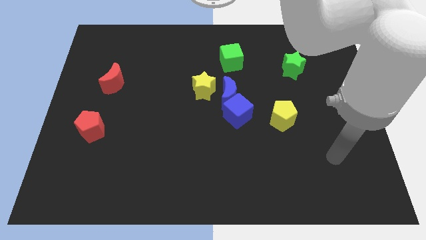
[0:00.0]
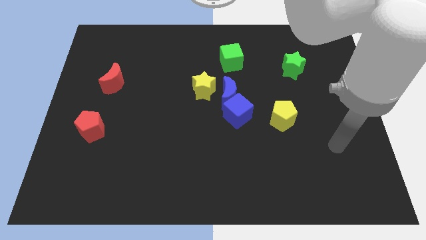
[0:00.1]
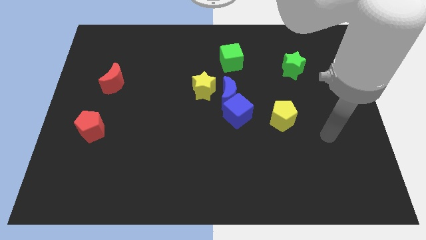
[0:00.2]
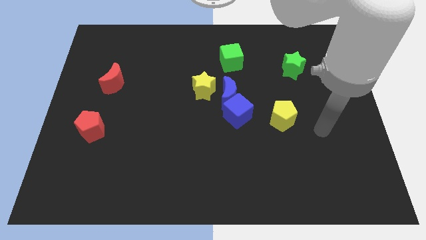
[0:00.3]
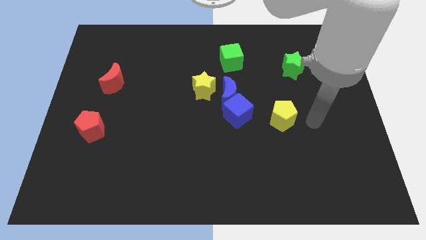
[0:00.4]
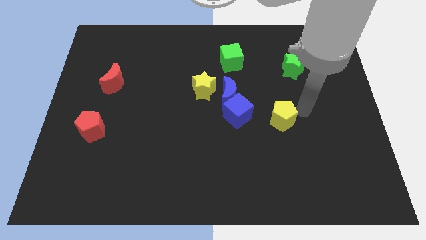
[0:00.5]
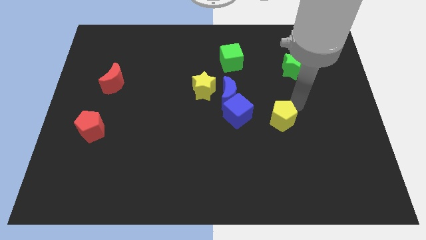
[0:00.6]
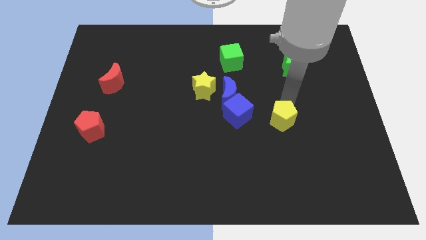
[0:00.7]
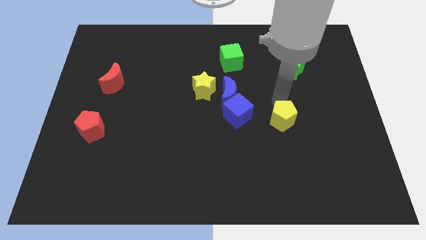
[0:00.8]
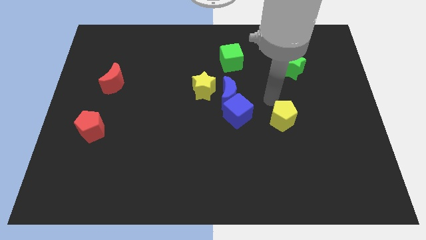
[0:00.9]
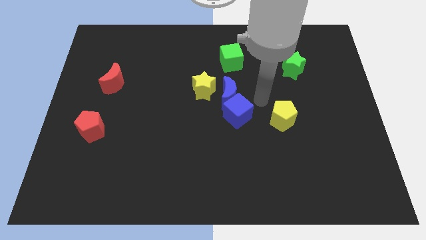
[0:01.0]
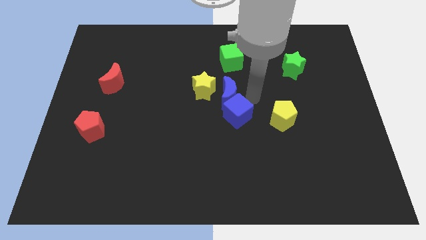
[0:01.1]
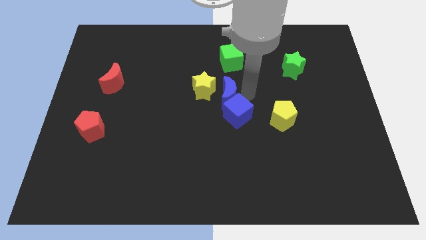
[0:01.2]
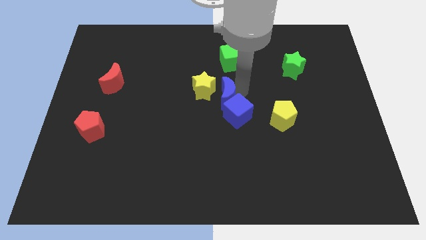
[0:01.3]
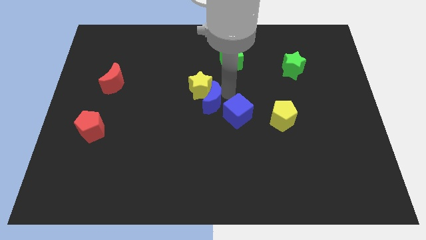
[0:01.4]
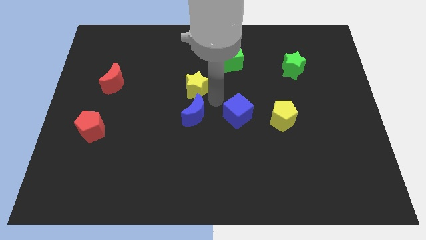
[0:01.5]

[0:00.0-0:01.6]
separate the blue cube from the blue moon

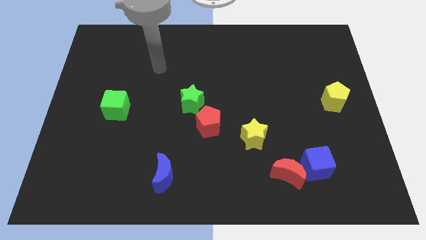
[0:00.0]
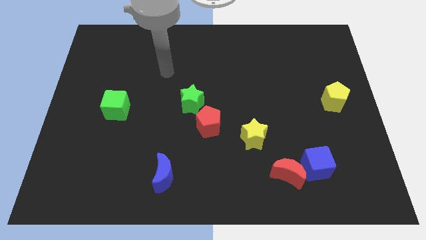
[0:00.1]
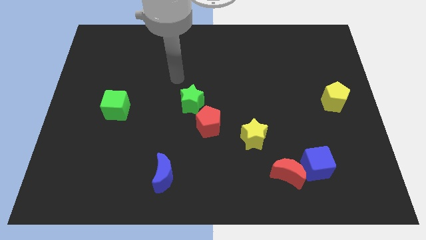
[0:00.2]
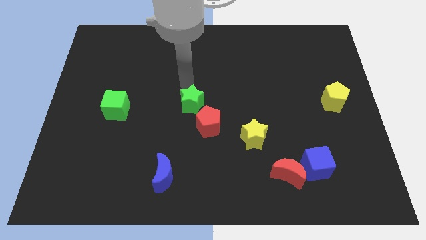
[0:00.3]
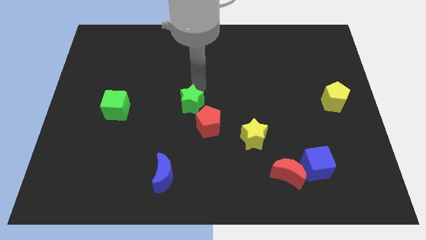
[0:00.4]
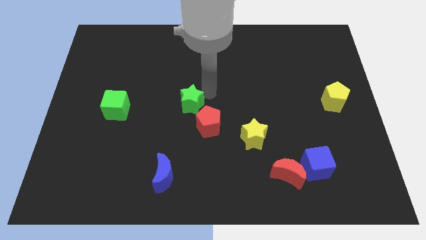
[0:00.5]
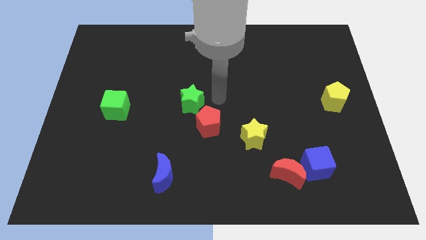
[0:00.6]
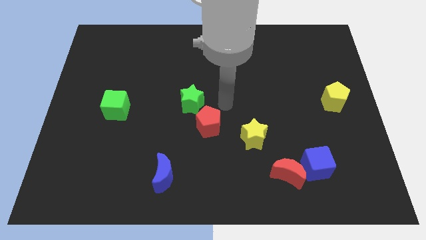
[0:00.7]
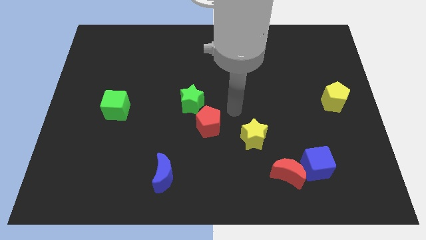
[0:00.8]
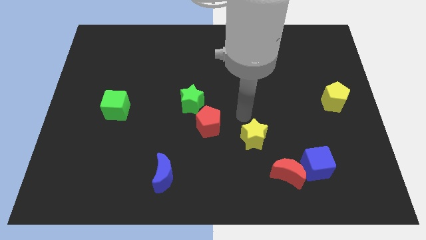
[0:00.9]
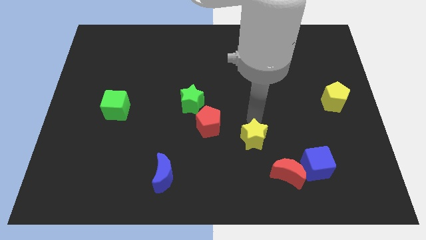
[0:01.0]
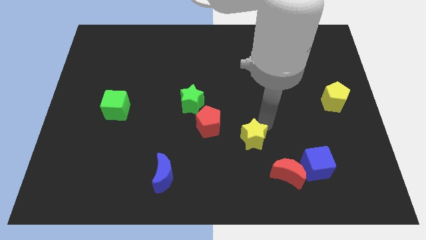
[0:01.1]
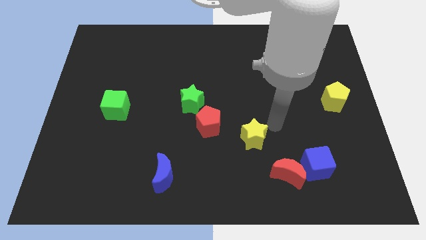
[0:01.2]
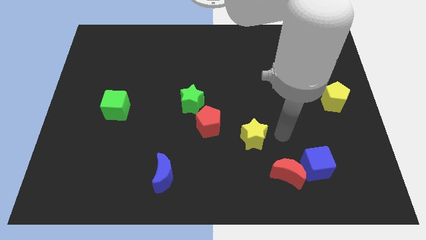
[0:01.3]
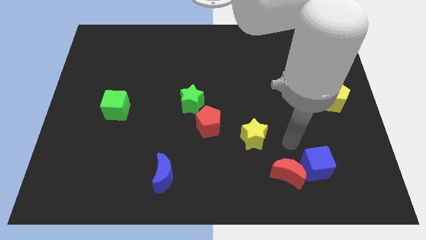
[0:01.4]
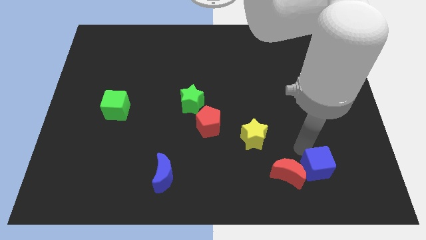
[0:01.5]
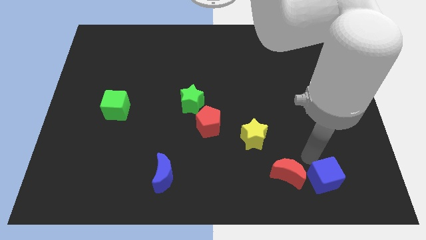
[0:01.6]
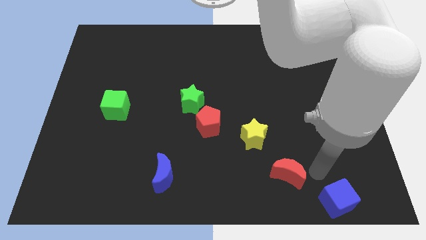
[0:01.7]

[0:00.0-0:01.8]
separate the red moon from the blue cube

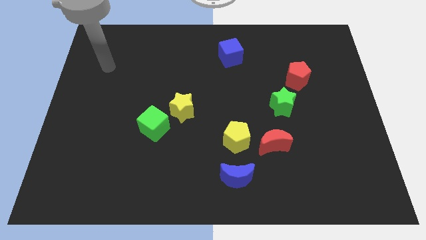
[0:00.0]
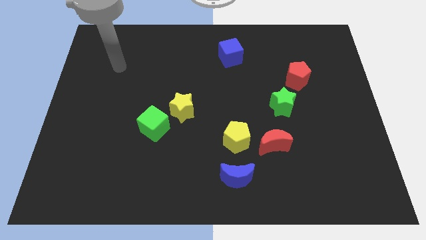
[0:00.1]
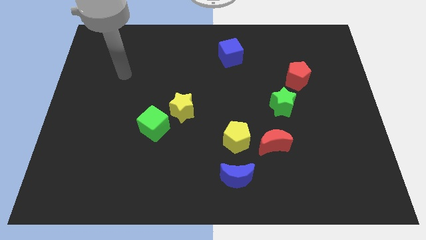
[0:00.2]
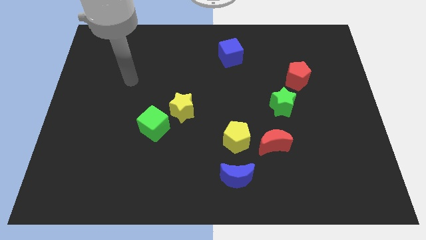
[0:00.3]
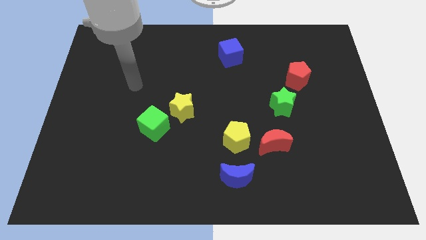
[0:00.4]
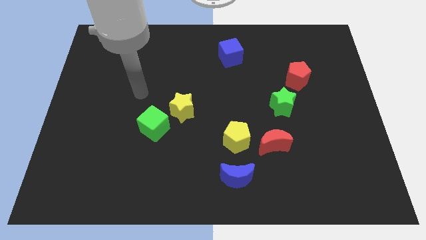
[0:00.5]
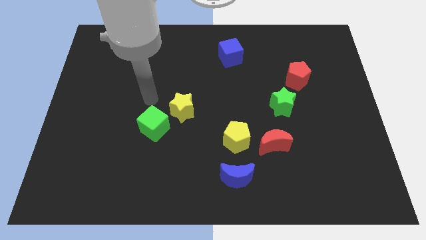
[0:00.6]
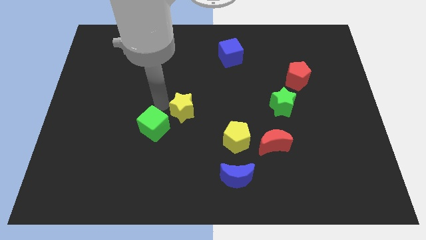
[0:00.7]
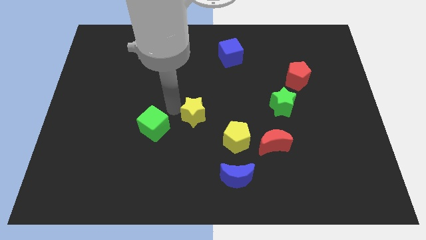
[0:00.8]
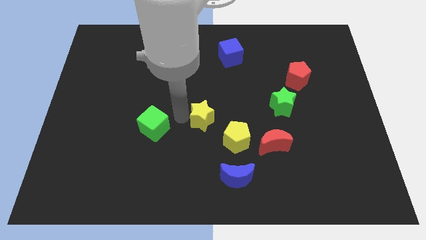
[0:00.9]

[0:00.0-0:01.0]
separate the green cube from the yellow star

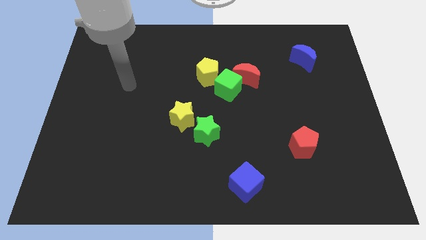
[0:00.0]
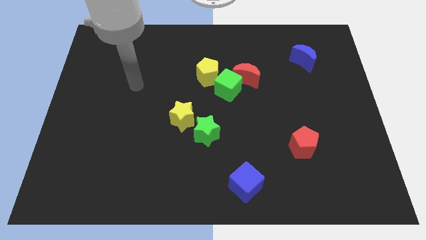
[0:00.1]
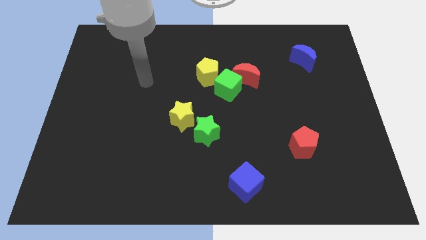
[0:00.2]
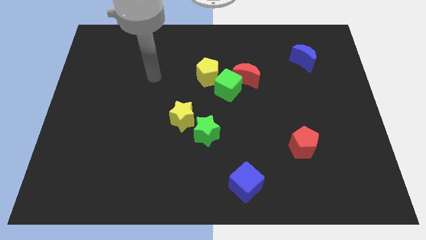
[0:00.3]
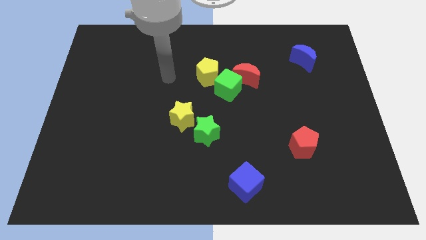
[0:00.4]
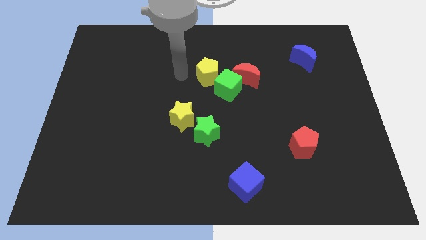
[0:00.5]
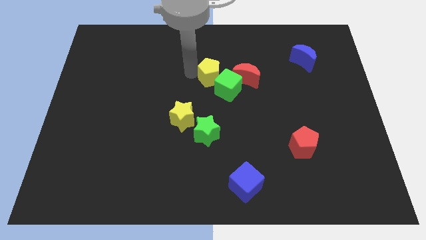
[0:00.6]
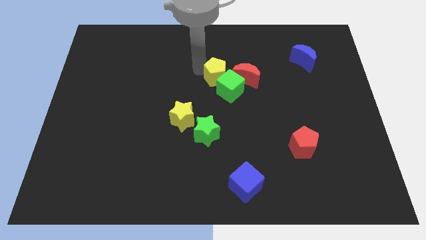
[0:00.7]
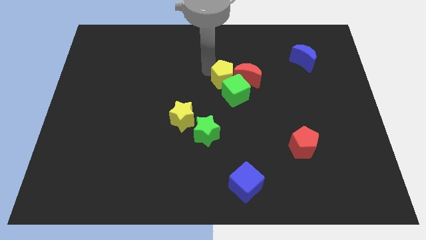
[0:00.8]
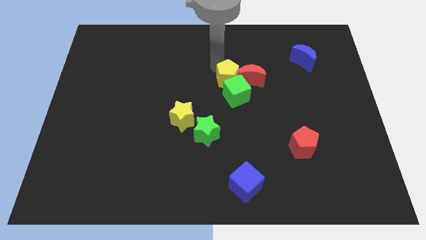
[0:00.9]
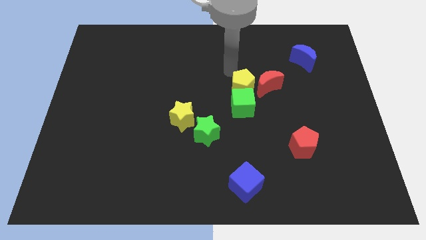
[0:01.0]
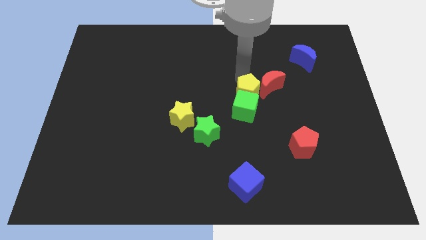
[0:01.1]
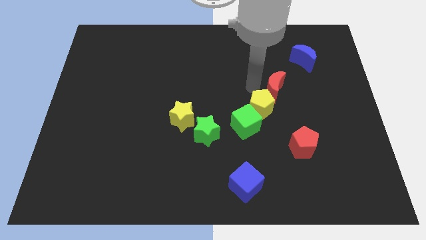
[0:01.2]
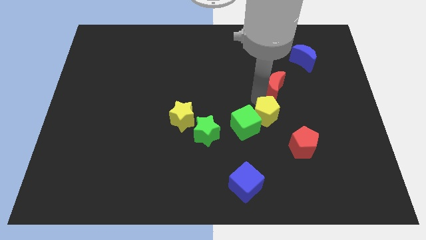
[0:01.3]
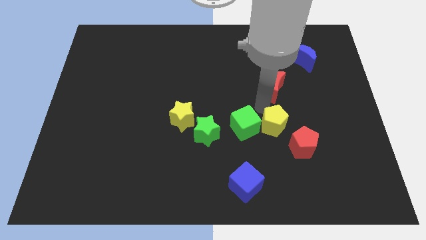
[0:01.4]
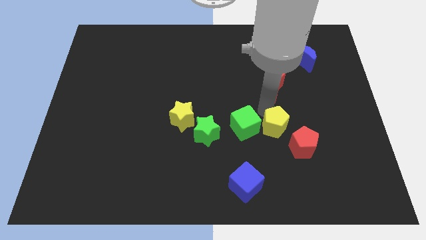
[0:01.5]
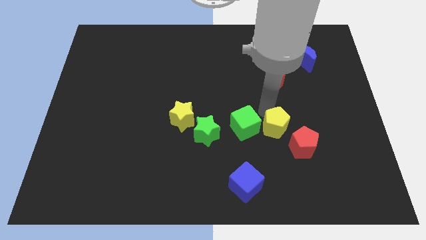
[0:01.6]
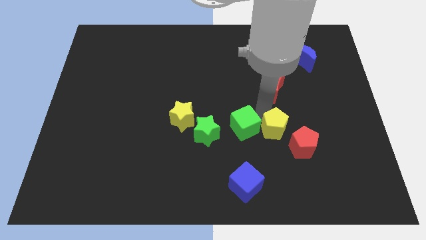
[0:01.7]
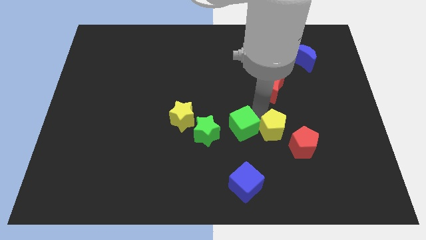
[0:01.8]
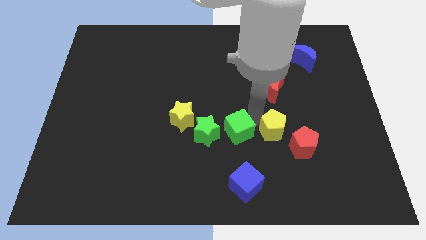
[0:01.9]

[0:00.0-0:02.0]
pull the green cube apart from the red moon and yellow pentagon

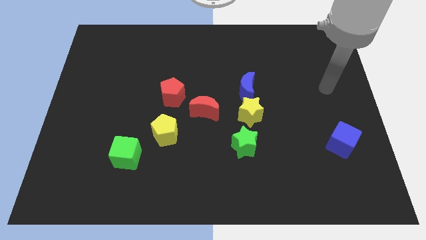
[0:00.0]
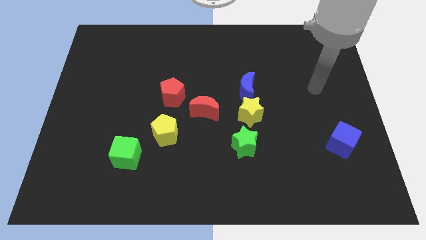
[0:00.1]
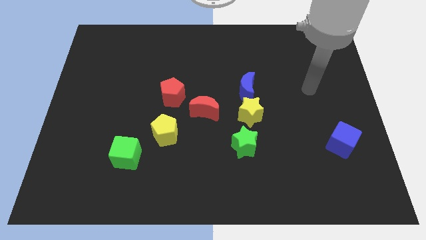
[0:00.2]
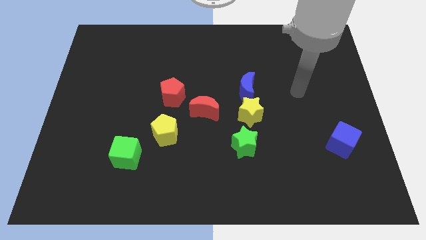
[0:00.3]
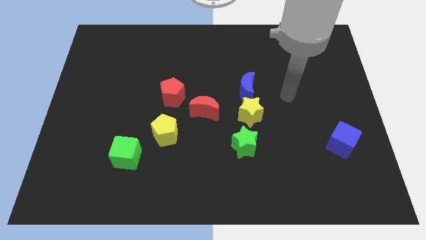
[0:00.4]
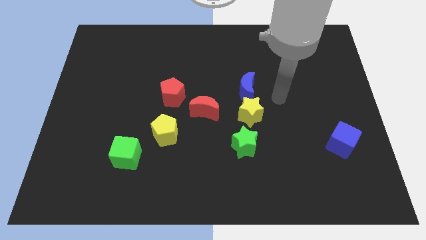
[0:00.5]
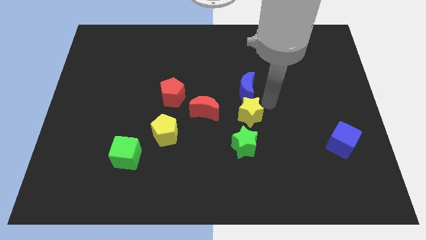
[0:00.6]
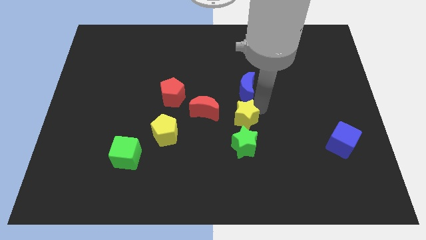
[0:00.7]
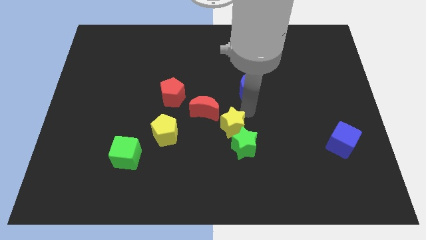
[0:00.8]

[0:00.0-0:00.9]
move the blue moon away from the yellow star

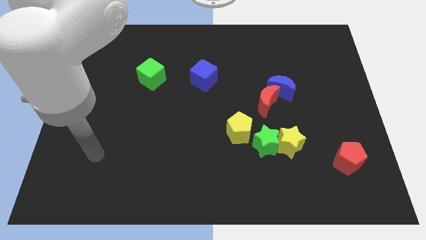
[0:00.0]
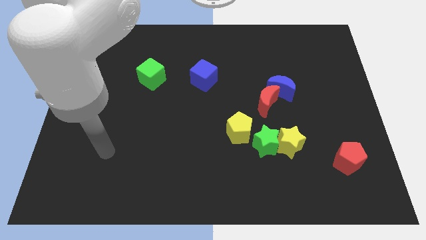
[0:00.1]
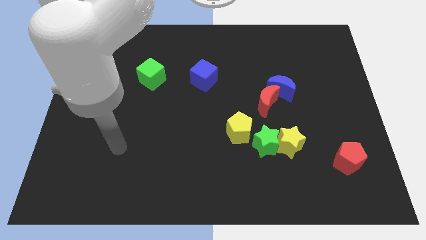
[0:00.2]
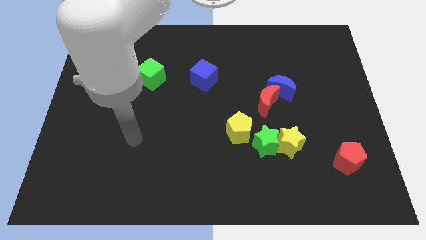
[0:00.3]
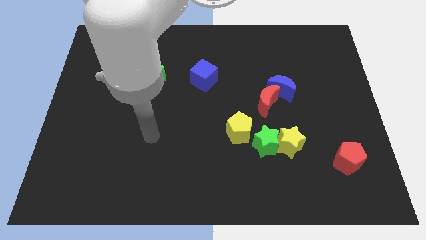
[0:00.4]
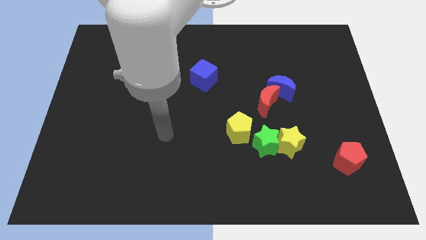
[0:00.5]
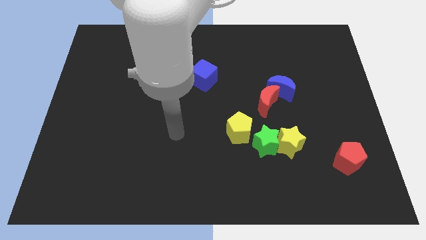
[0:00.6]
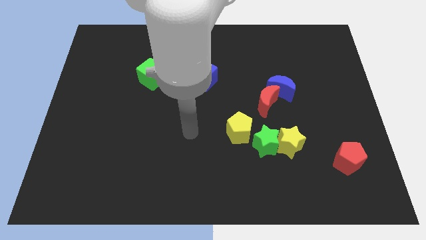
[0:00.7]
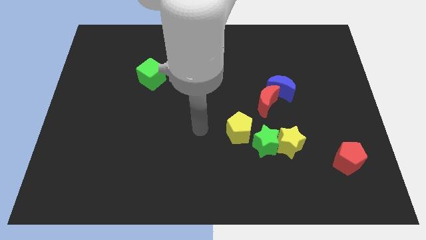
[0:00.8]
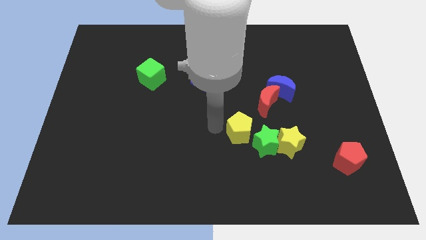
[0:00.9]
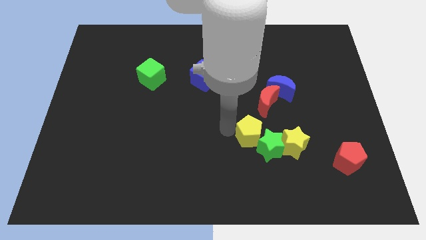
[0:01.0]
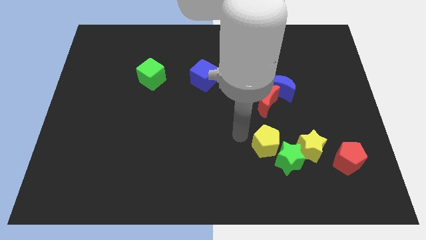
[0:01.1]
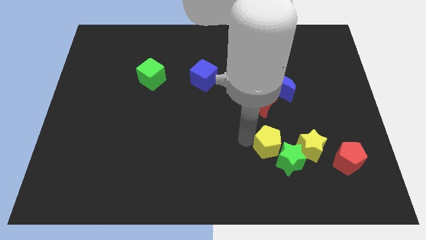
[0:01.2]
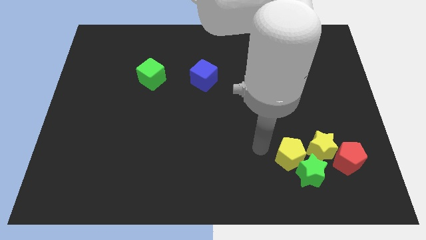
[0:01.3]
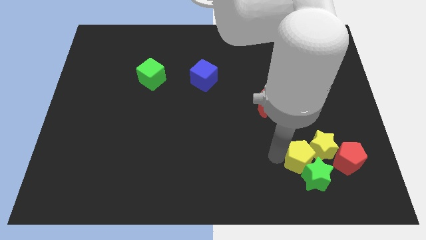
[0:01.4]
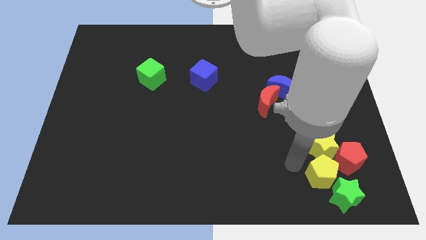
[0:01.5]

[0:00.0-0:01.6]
move the yellow star away from the green star

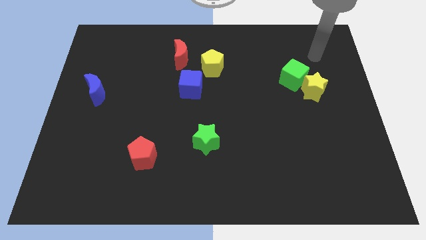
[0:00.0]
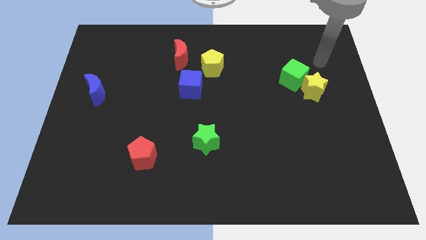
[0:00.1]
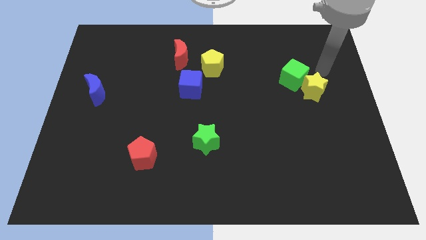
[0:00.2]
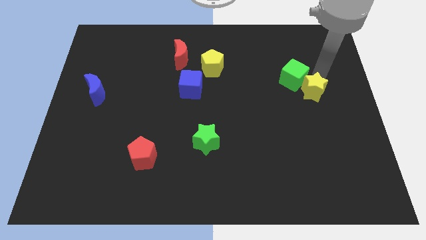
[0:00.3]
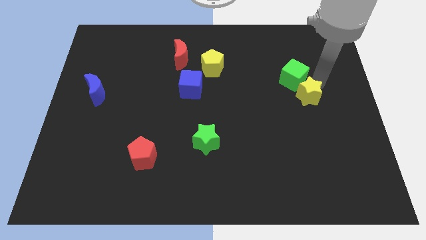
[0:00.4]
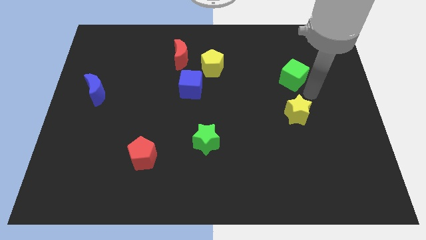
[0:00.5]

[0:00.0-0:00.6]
pull the green cube apart from the yellow star
